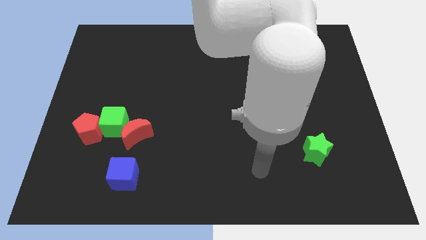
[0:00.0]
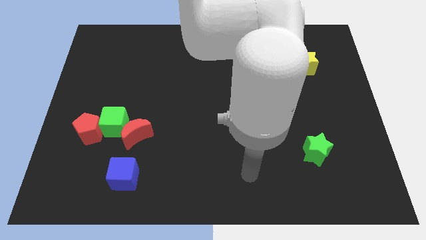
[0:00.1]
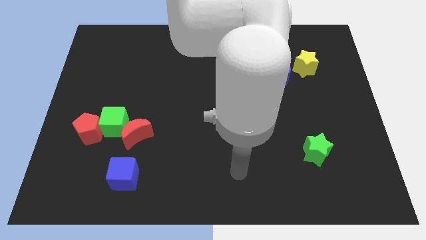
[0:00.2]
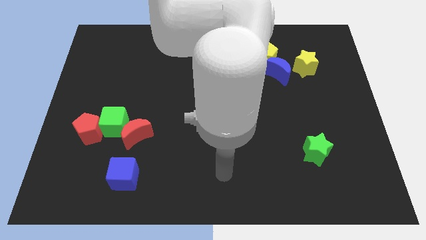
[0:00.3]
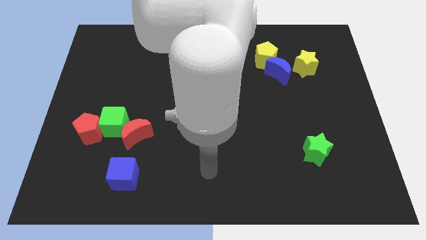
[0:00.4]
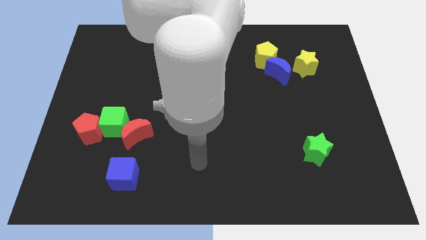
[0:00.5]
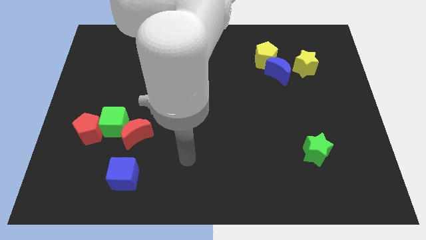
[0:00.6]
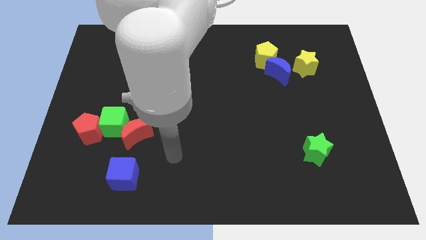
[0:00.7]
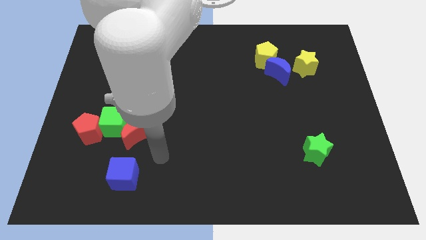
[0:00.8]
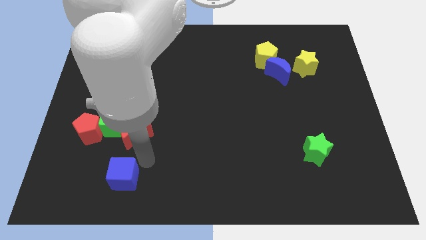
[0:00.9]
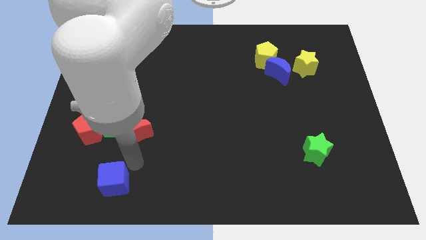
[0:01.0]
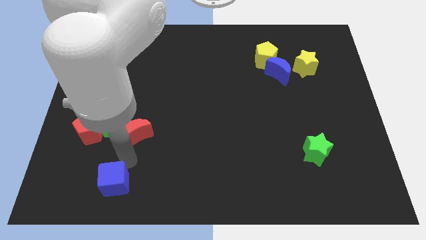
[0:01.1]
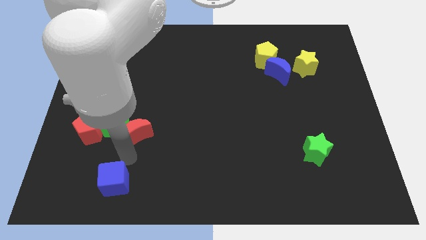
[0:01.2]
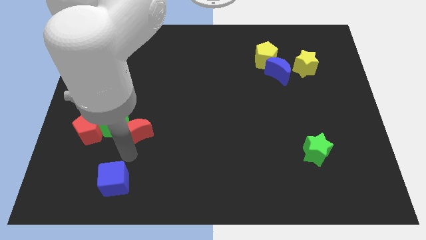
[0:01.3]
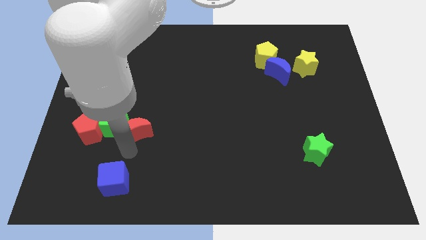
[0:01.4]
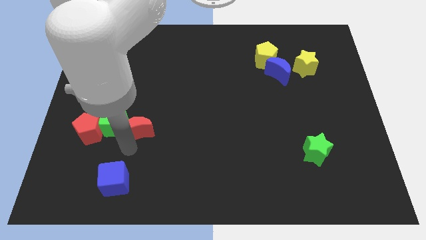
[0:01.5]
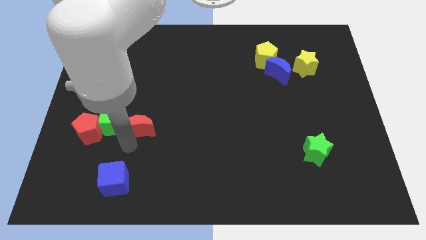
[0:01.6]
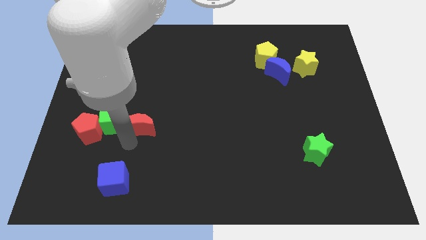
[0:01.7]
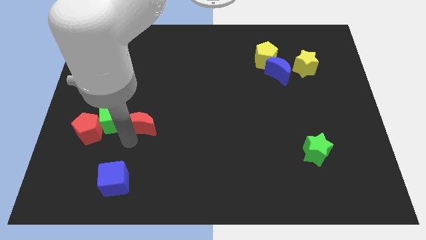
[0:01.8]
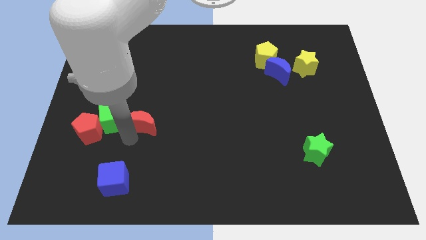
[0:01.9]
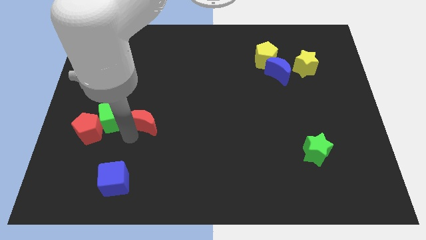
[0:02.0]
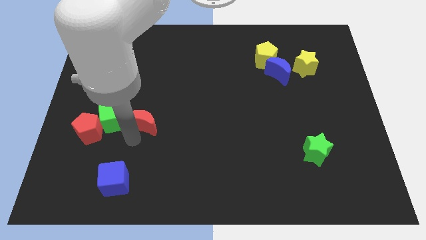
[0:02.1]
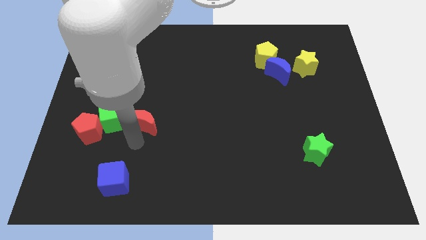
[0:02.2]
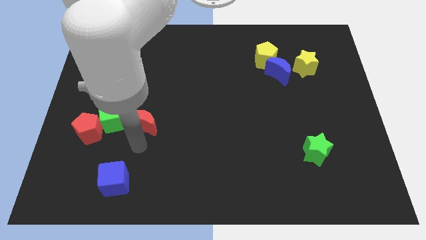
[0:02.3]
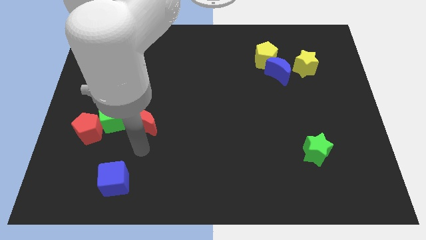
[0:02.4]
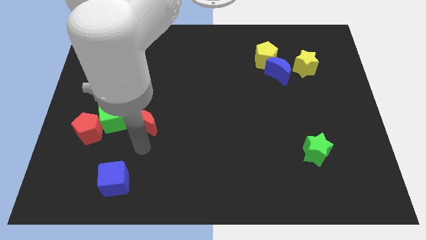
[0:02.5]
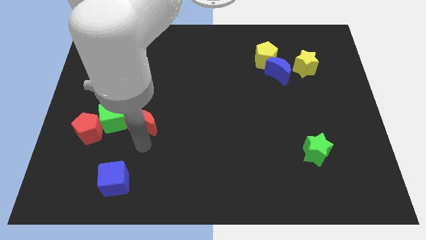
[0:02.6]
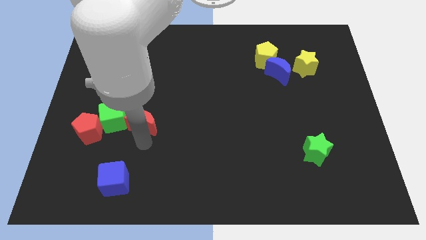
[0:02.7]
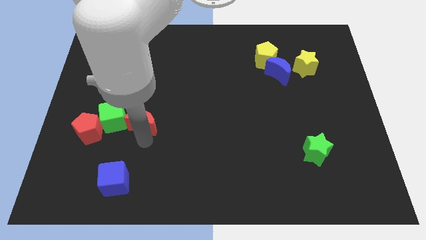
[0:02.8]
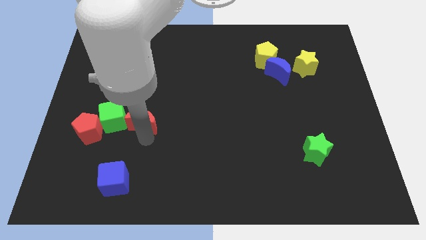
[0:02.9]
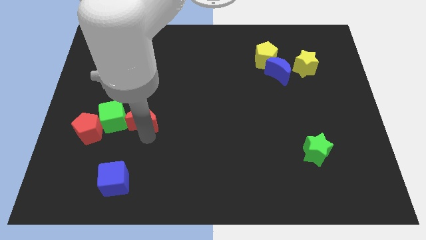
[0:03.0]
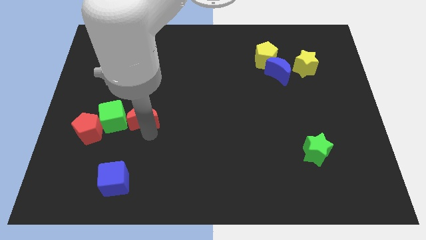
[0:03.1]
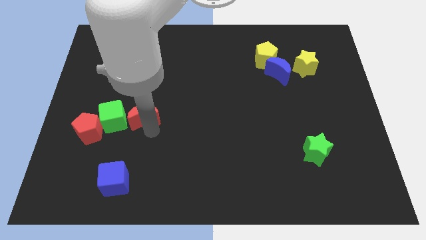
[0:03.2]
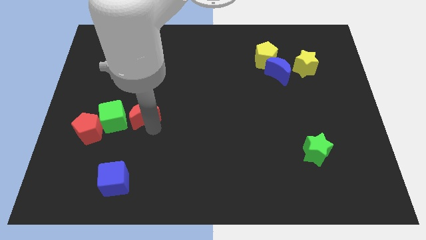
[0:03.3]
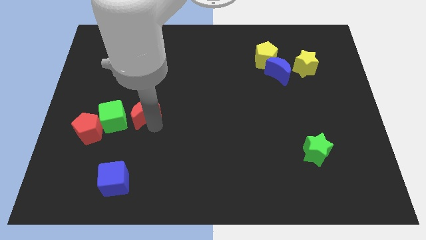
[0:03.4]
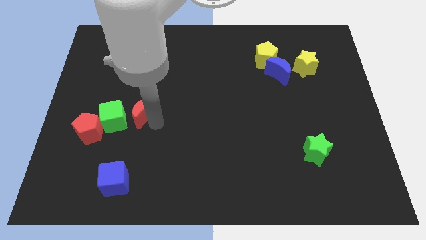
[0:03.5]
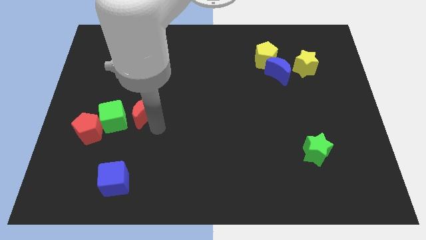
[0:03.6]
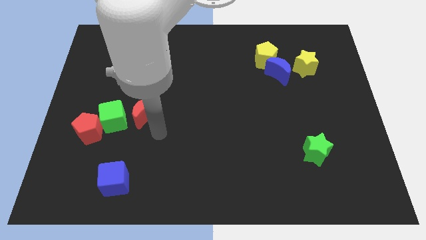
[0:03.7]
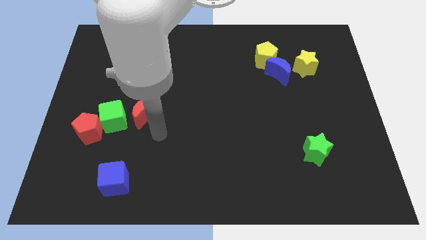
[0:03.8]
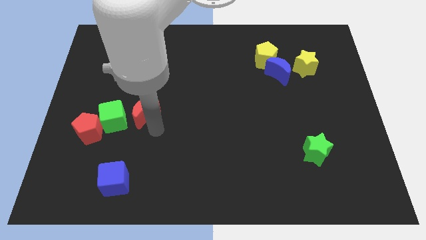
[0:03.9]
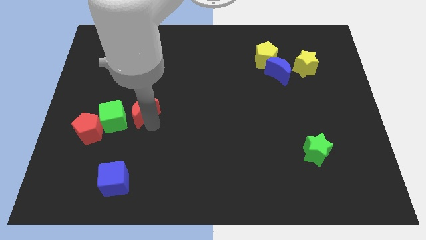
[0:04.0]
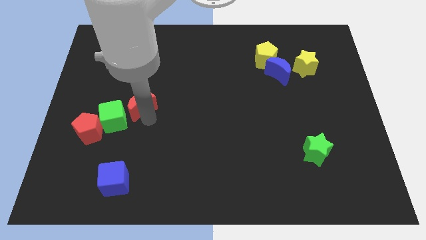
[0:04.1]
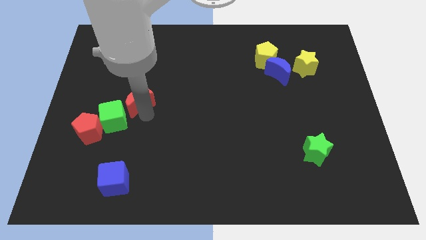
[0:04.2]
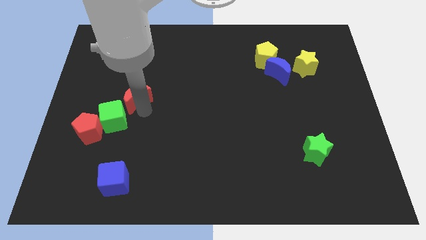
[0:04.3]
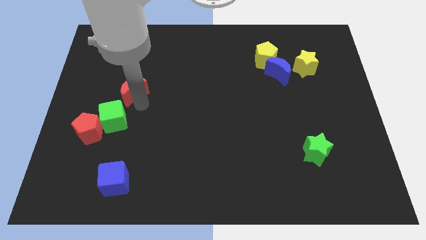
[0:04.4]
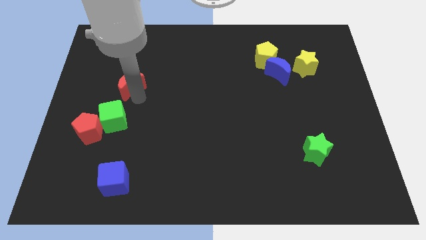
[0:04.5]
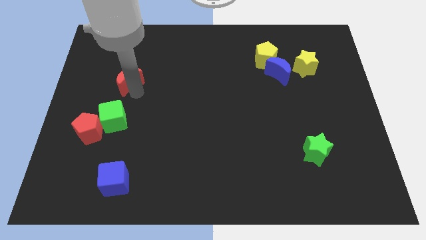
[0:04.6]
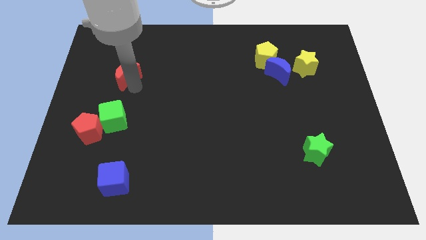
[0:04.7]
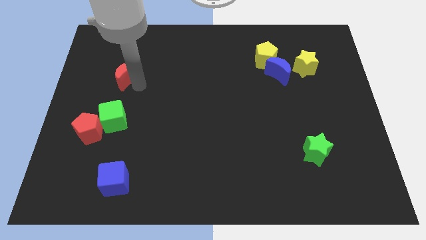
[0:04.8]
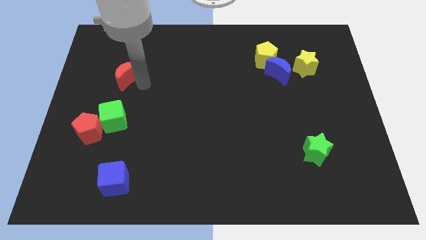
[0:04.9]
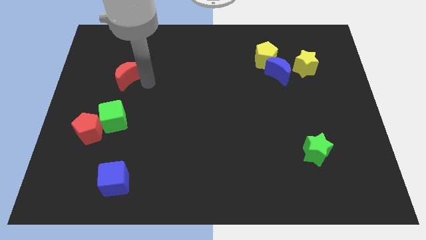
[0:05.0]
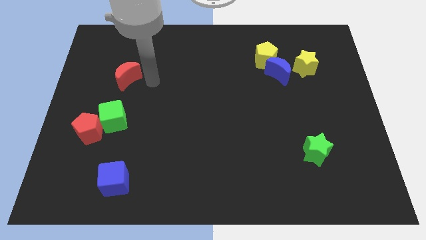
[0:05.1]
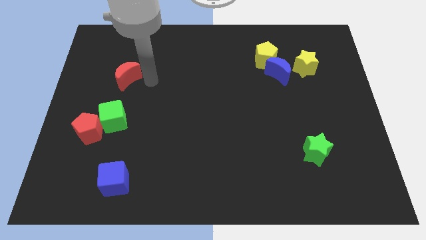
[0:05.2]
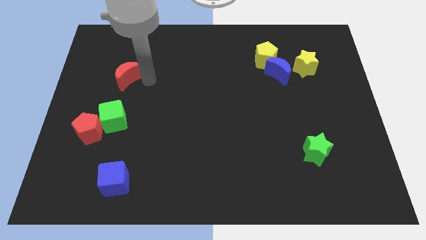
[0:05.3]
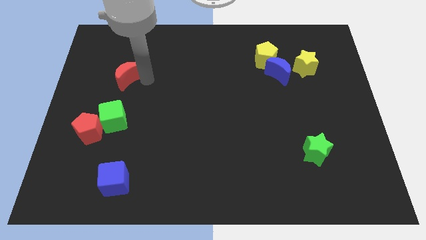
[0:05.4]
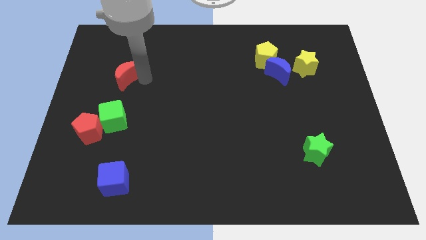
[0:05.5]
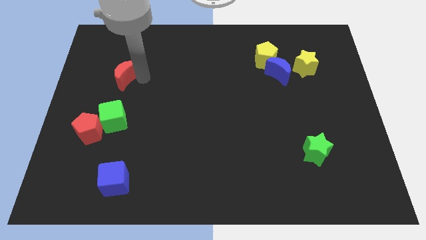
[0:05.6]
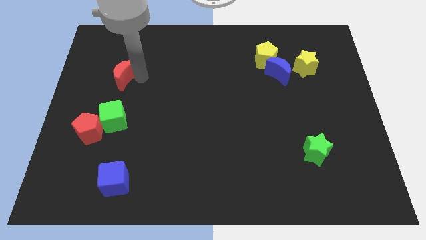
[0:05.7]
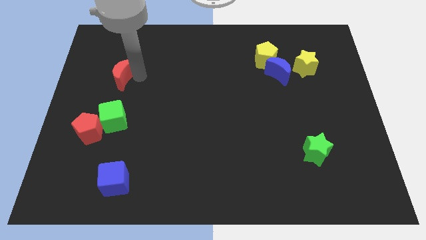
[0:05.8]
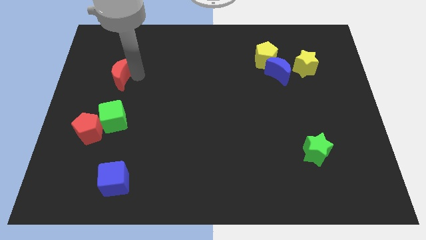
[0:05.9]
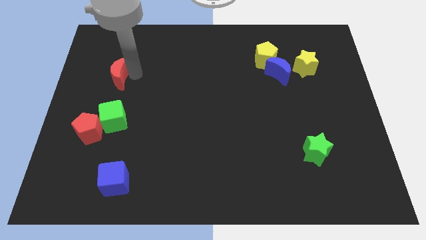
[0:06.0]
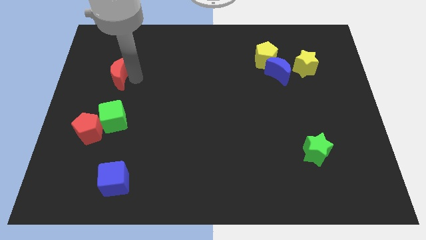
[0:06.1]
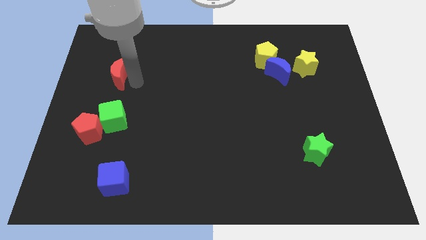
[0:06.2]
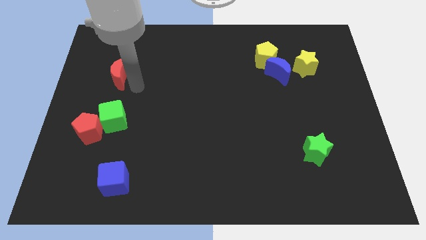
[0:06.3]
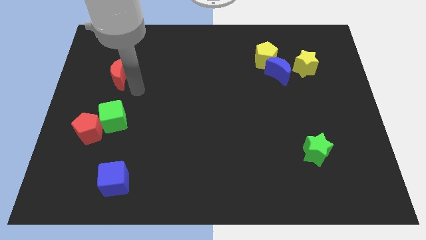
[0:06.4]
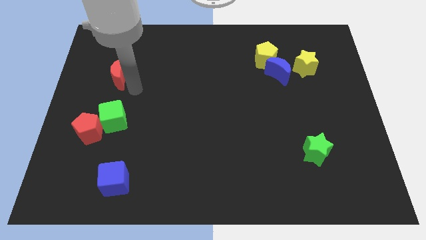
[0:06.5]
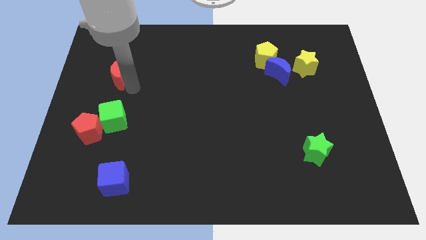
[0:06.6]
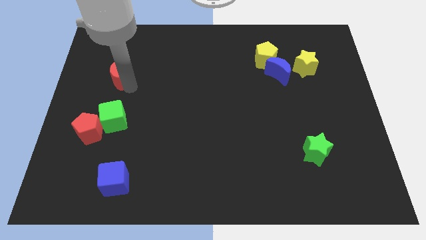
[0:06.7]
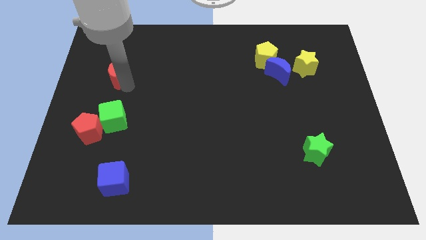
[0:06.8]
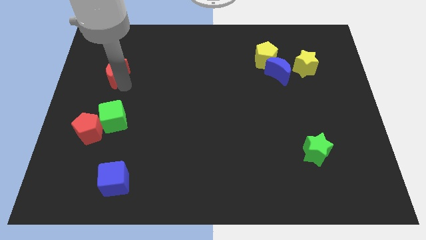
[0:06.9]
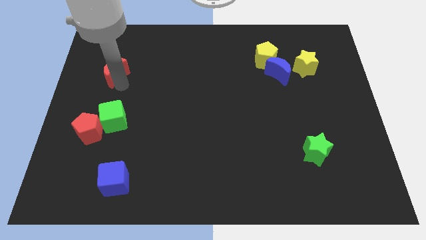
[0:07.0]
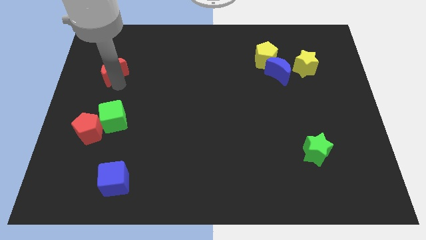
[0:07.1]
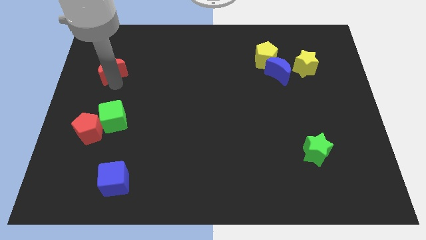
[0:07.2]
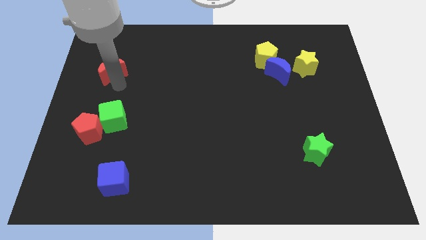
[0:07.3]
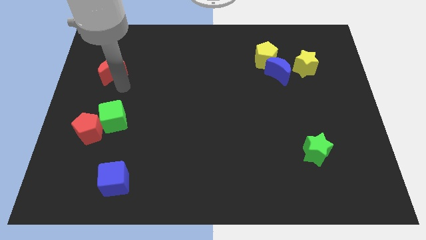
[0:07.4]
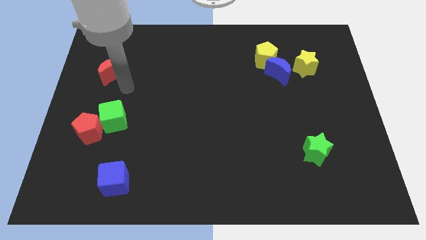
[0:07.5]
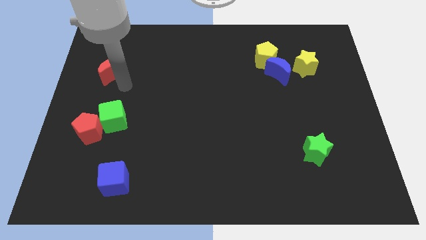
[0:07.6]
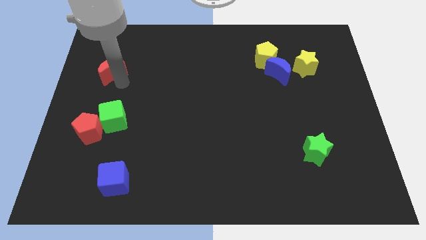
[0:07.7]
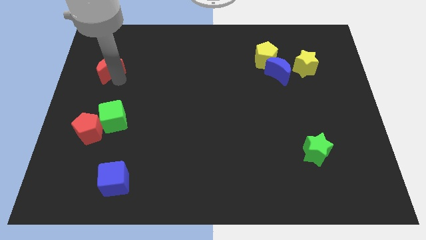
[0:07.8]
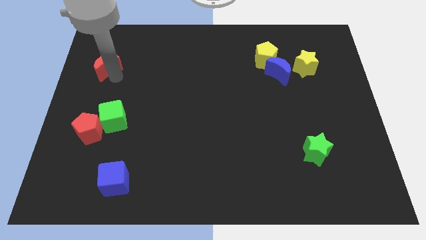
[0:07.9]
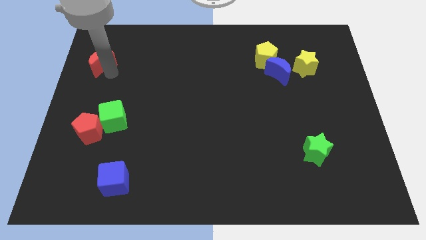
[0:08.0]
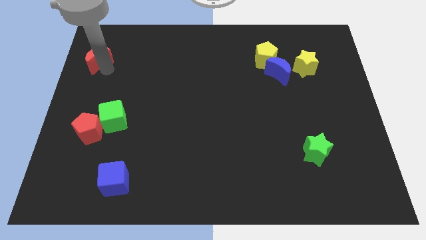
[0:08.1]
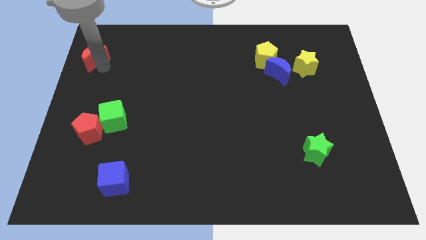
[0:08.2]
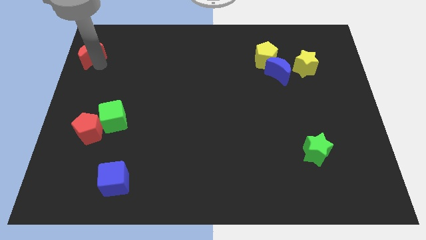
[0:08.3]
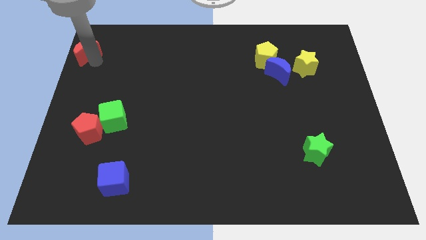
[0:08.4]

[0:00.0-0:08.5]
slide the red moon to the top left corner
